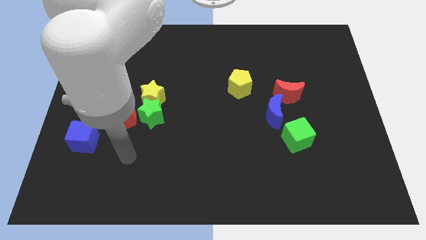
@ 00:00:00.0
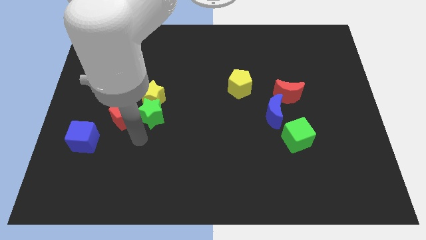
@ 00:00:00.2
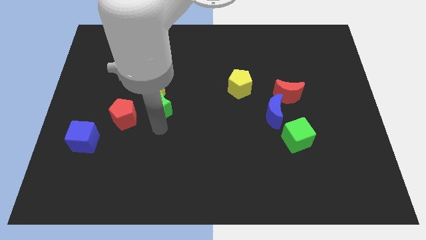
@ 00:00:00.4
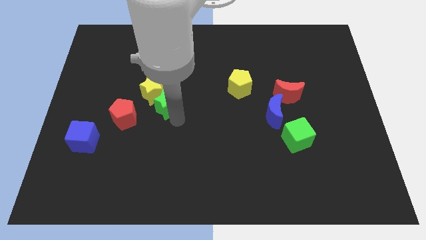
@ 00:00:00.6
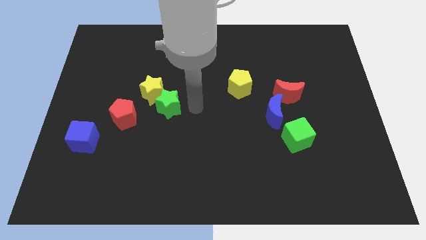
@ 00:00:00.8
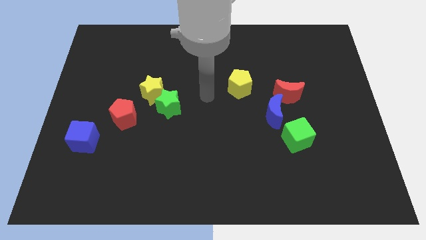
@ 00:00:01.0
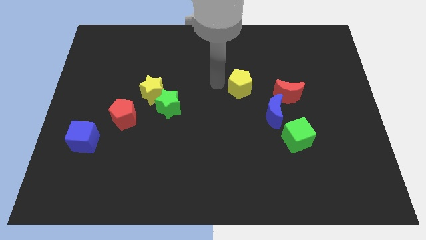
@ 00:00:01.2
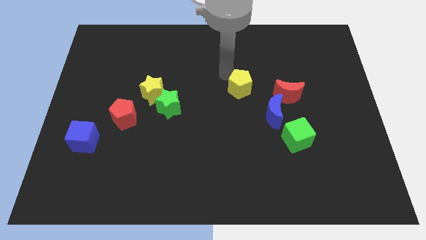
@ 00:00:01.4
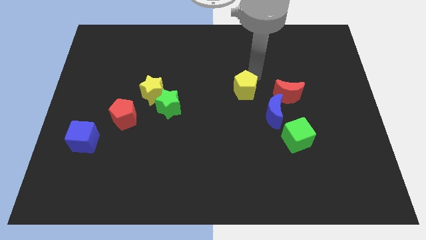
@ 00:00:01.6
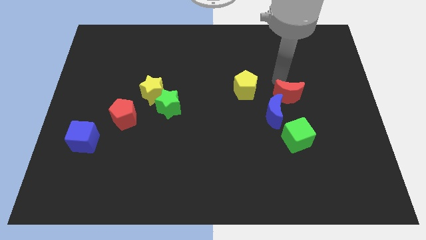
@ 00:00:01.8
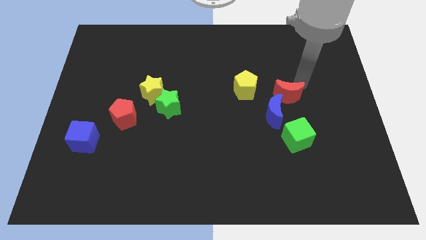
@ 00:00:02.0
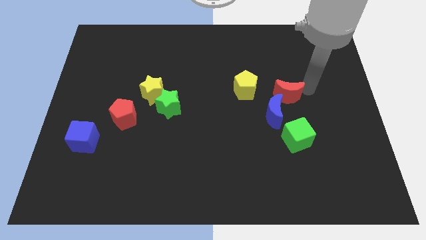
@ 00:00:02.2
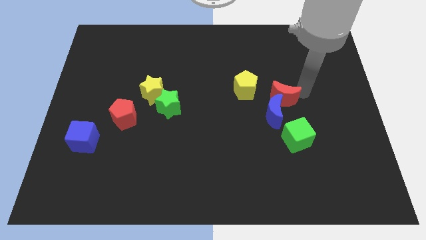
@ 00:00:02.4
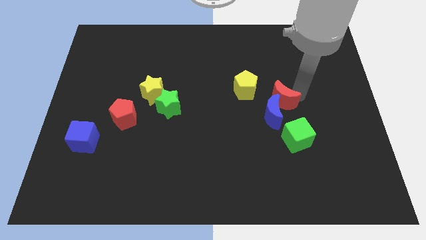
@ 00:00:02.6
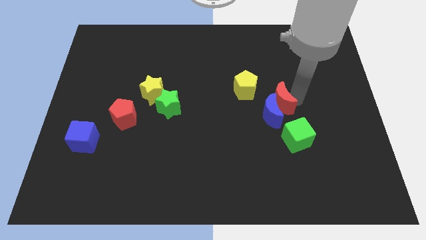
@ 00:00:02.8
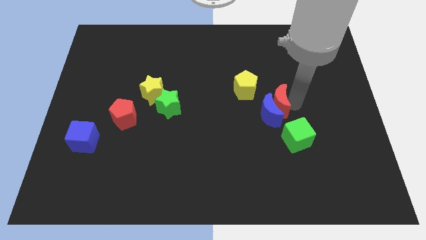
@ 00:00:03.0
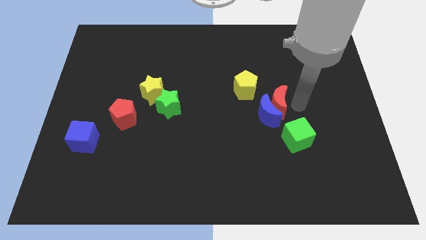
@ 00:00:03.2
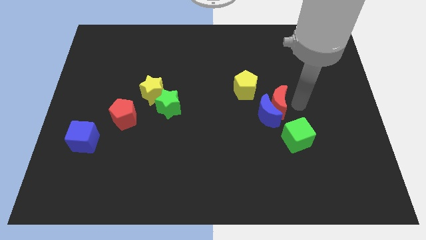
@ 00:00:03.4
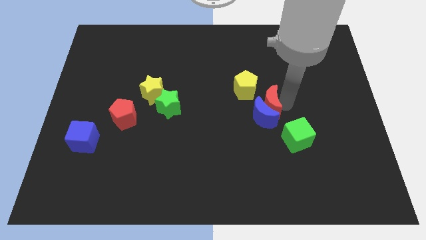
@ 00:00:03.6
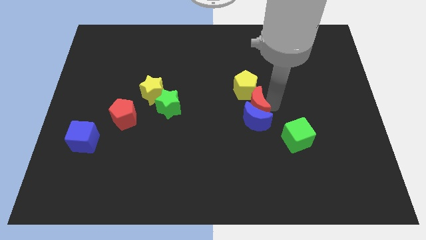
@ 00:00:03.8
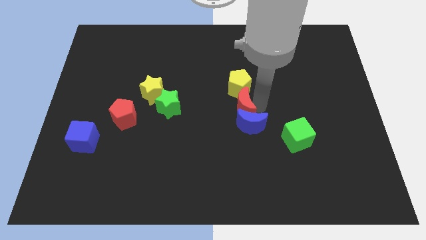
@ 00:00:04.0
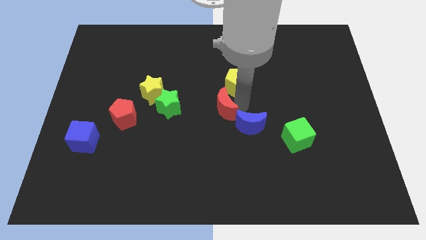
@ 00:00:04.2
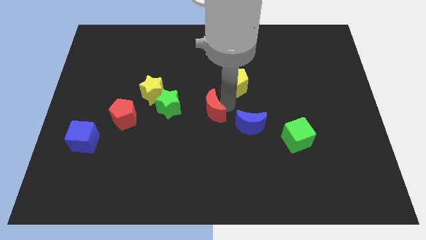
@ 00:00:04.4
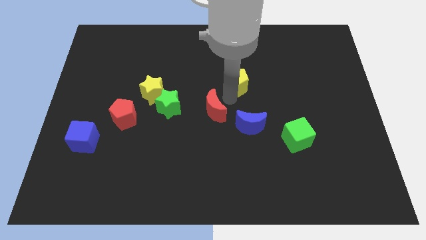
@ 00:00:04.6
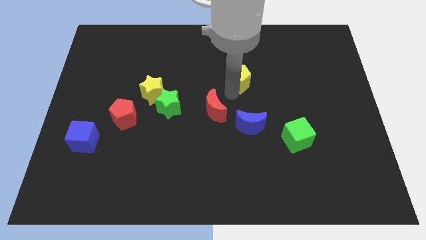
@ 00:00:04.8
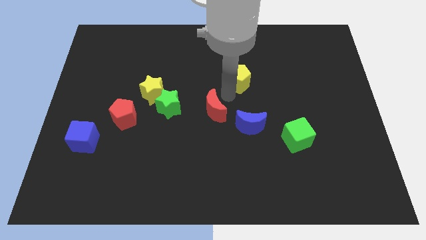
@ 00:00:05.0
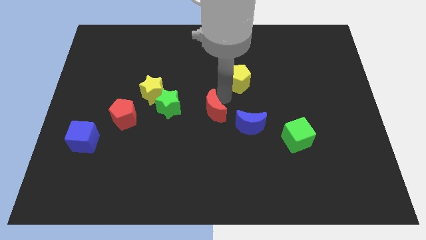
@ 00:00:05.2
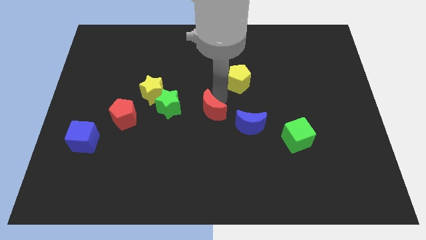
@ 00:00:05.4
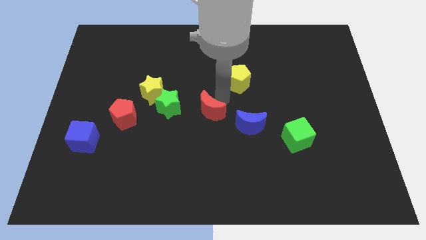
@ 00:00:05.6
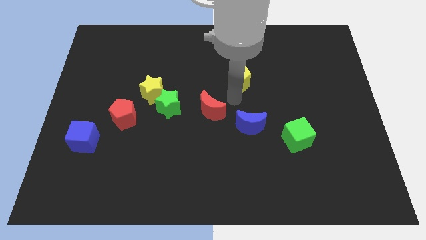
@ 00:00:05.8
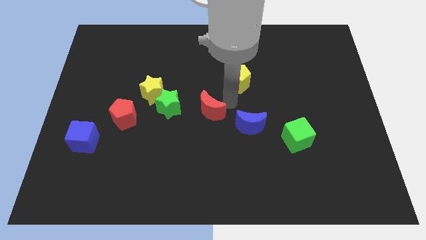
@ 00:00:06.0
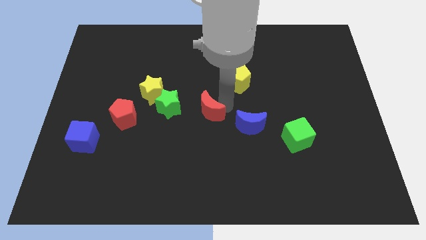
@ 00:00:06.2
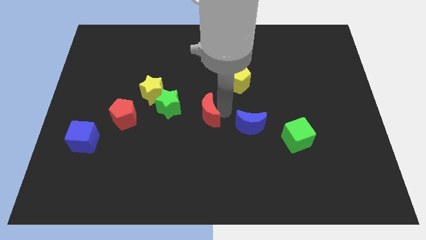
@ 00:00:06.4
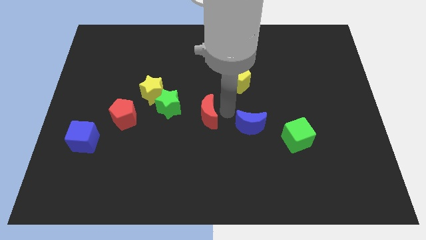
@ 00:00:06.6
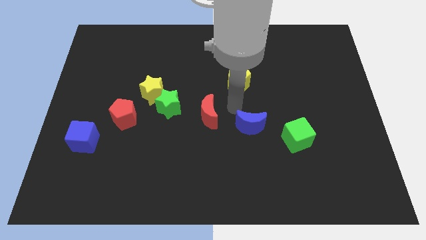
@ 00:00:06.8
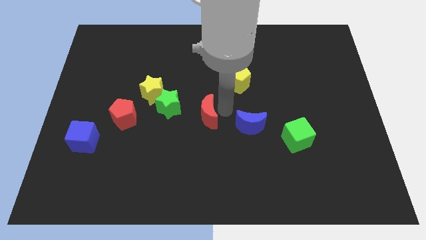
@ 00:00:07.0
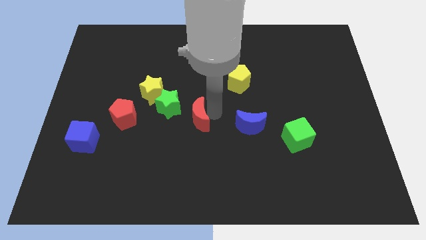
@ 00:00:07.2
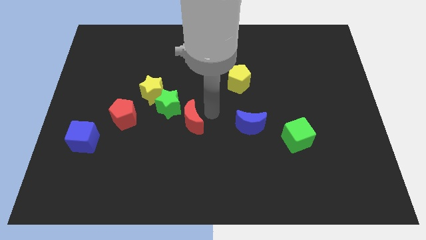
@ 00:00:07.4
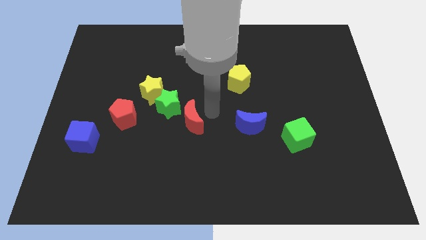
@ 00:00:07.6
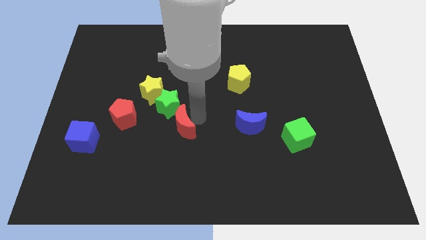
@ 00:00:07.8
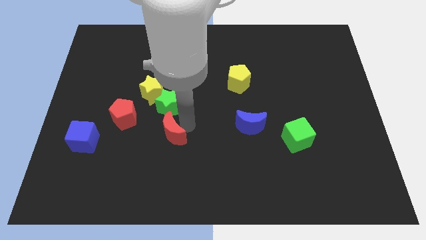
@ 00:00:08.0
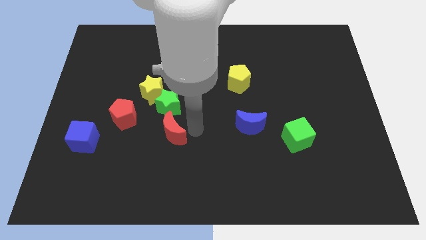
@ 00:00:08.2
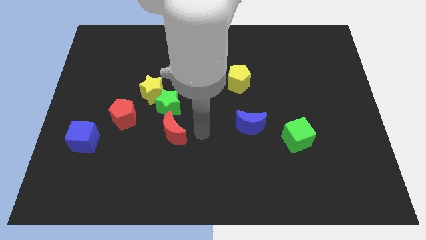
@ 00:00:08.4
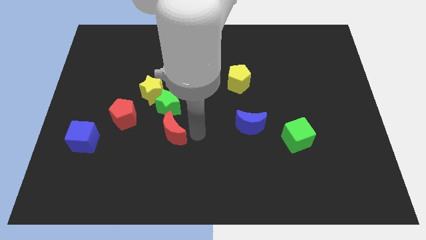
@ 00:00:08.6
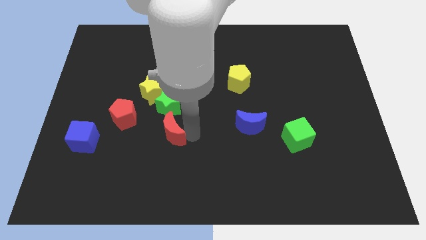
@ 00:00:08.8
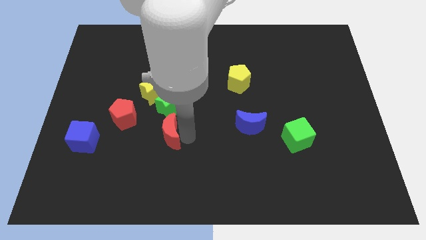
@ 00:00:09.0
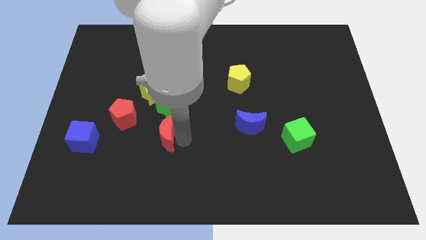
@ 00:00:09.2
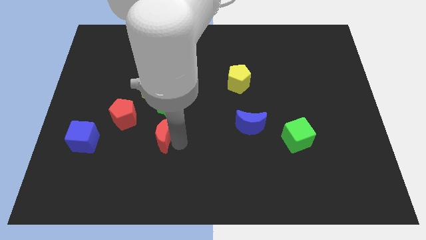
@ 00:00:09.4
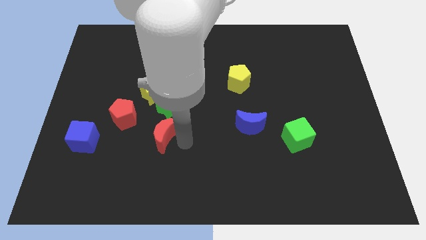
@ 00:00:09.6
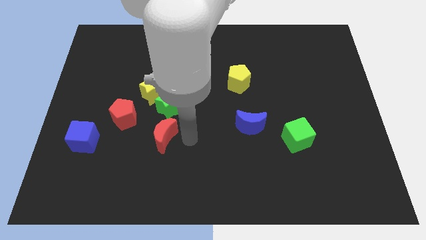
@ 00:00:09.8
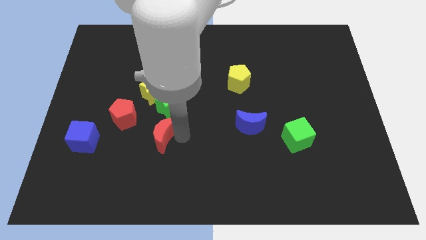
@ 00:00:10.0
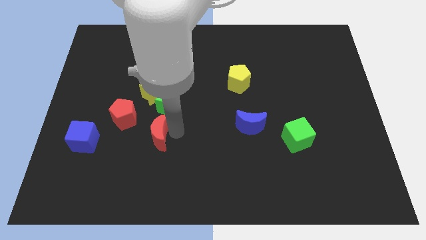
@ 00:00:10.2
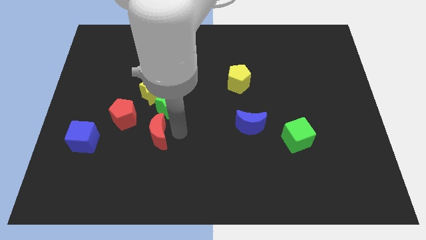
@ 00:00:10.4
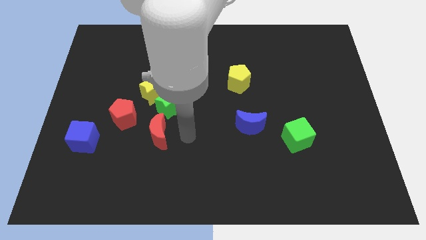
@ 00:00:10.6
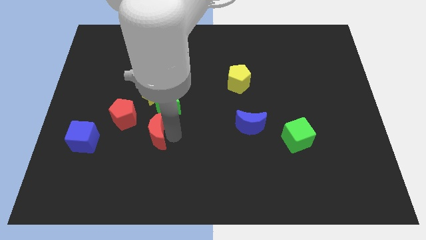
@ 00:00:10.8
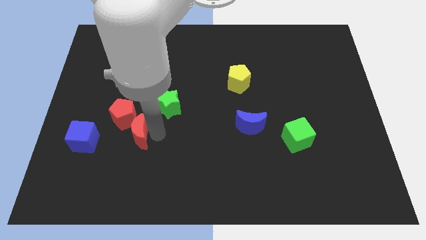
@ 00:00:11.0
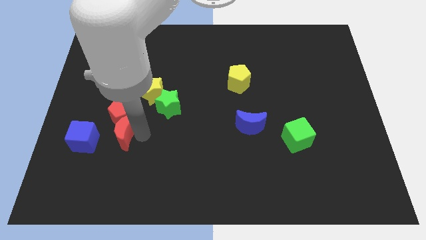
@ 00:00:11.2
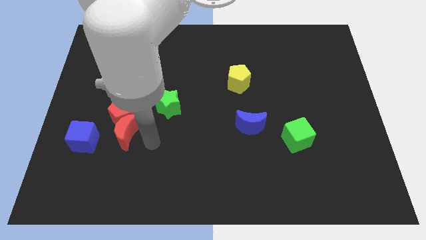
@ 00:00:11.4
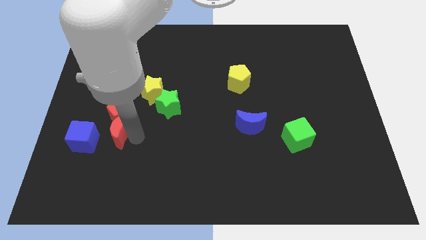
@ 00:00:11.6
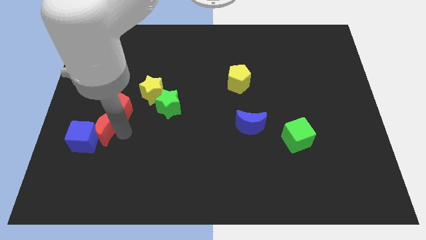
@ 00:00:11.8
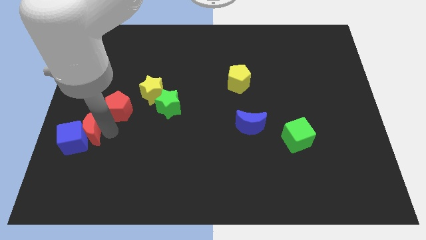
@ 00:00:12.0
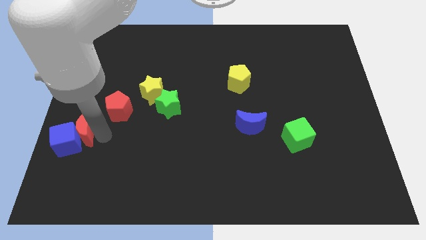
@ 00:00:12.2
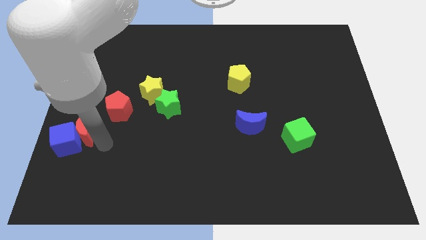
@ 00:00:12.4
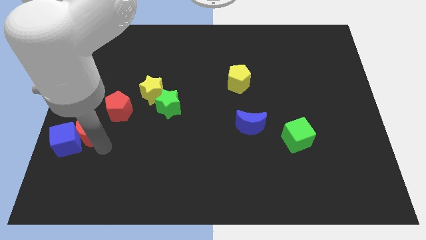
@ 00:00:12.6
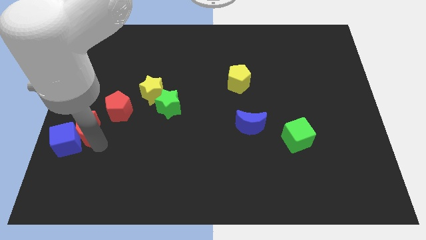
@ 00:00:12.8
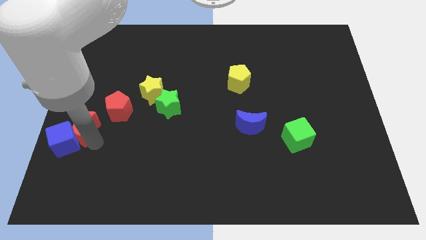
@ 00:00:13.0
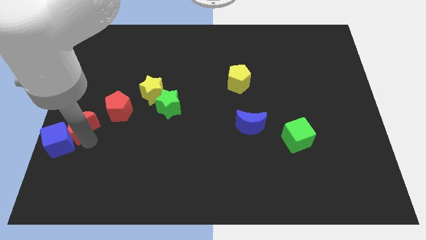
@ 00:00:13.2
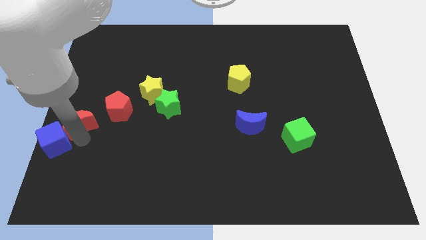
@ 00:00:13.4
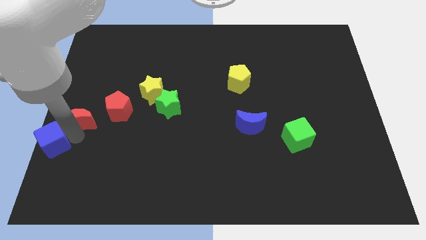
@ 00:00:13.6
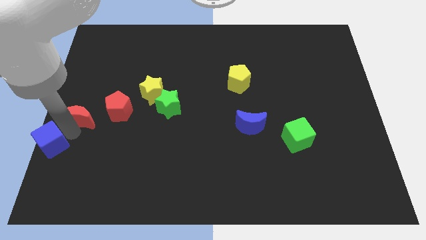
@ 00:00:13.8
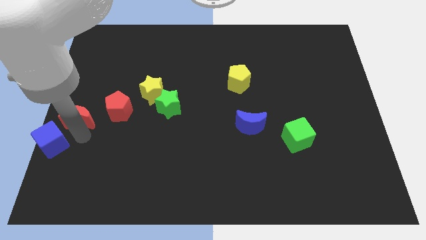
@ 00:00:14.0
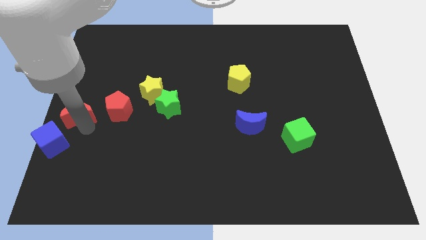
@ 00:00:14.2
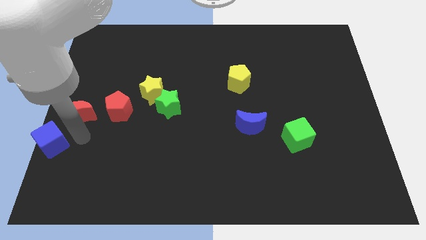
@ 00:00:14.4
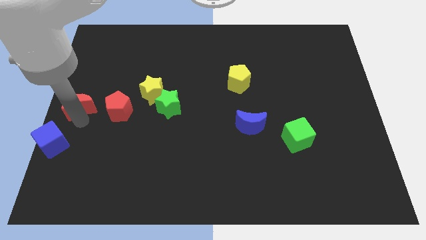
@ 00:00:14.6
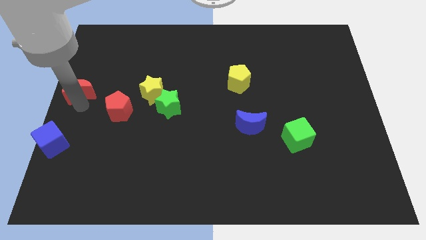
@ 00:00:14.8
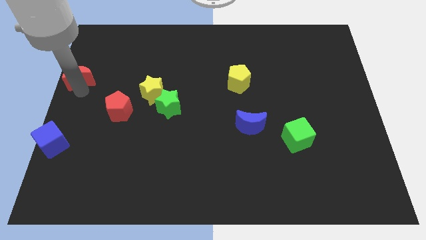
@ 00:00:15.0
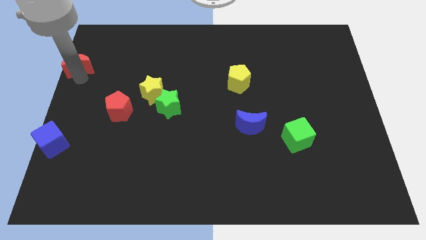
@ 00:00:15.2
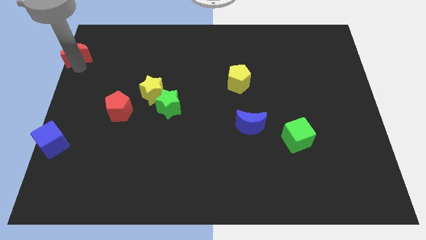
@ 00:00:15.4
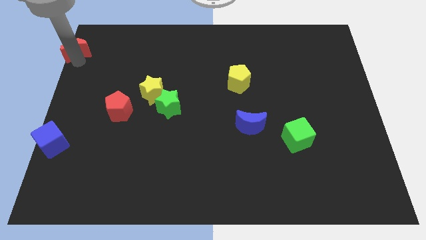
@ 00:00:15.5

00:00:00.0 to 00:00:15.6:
push the red moon to the top left of the board
